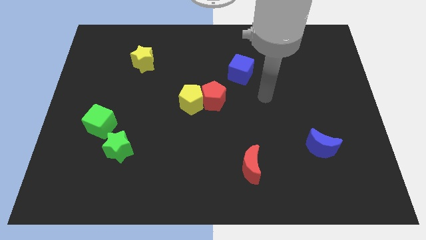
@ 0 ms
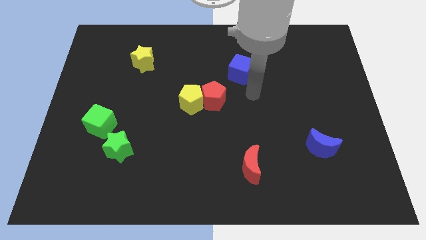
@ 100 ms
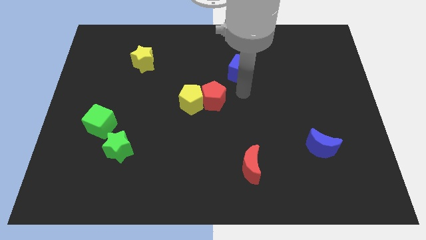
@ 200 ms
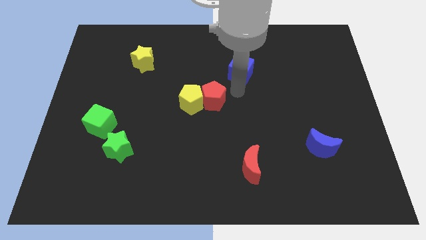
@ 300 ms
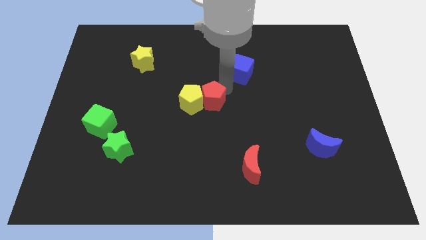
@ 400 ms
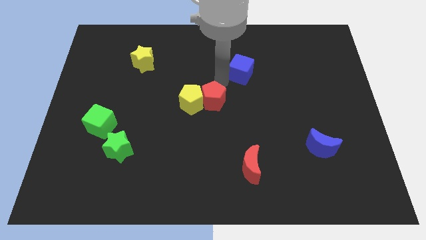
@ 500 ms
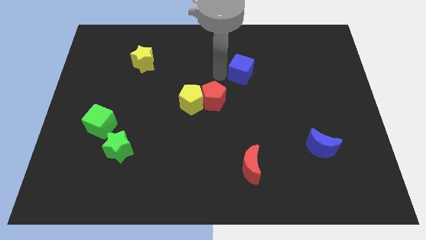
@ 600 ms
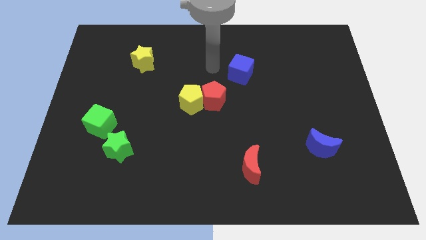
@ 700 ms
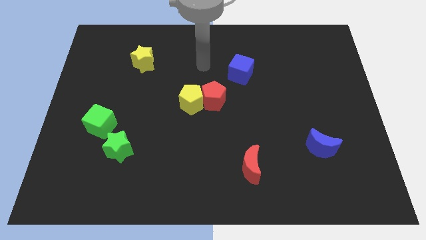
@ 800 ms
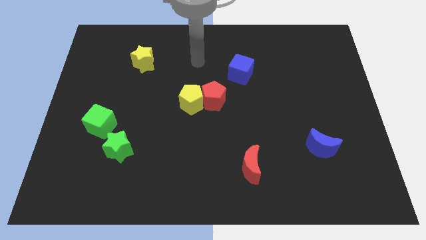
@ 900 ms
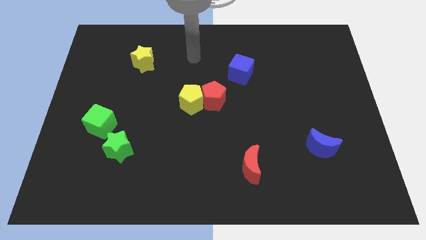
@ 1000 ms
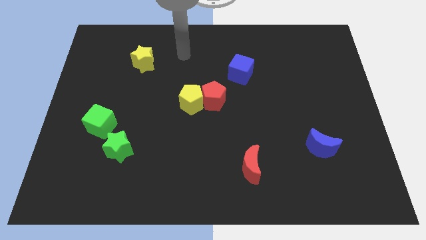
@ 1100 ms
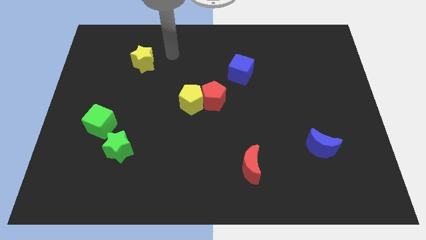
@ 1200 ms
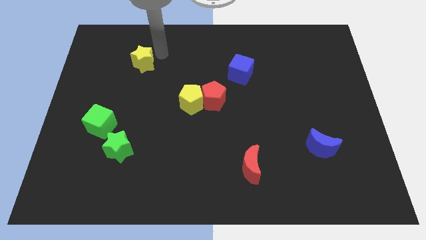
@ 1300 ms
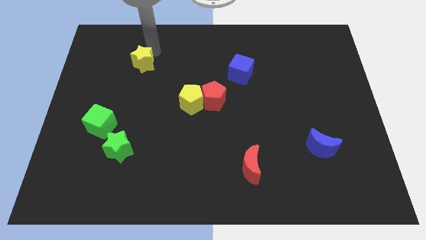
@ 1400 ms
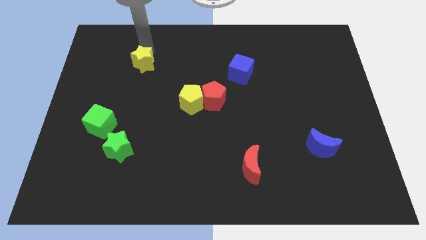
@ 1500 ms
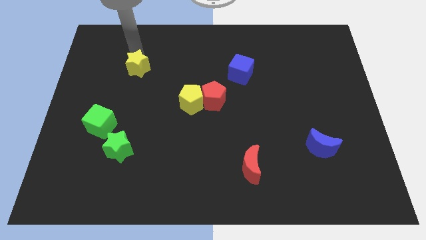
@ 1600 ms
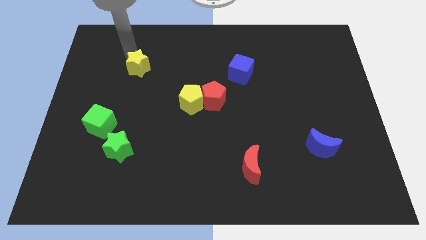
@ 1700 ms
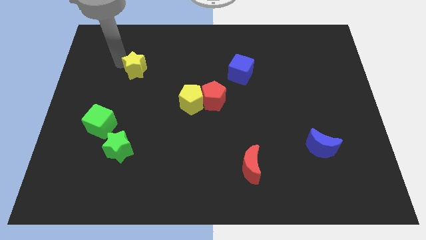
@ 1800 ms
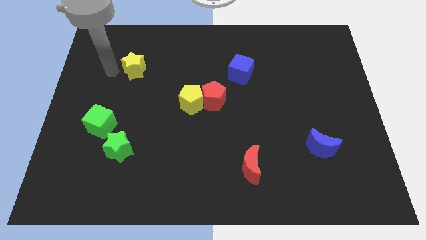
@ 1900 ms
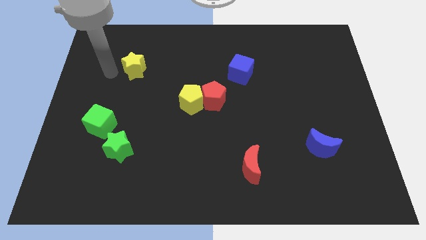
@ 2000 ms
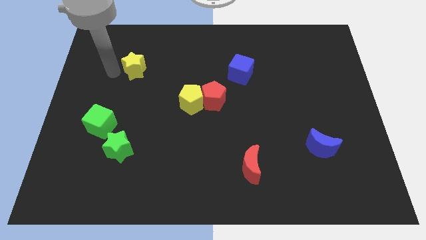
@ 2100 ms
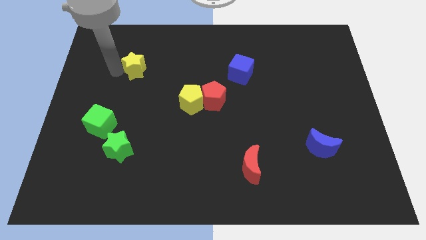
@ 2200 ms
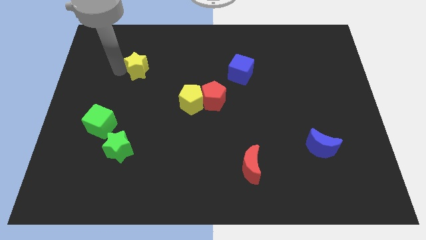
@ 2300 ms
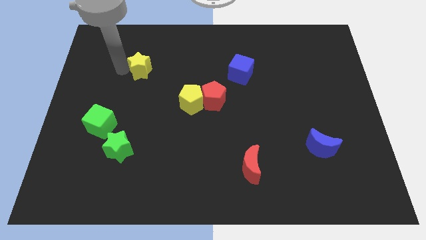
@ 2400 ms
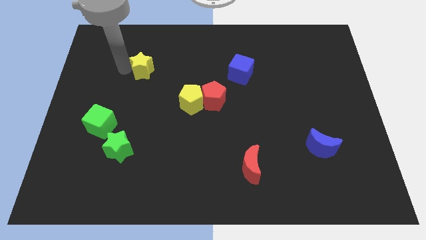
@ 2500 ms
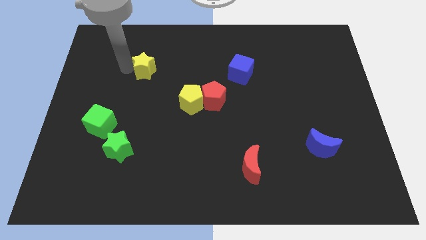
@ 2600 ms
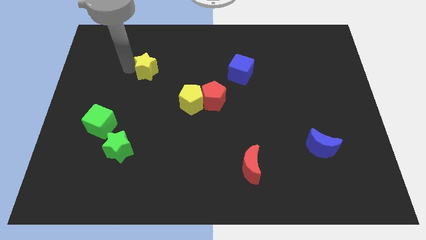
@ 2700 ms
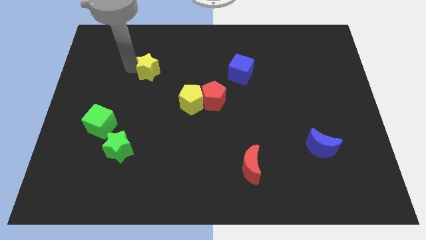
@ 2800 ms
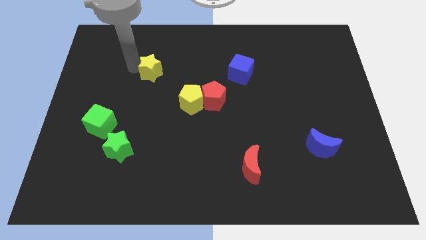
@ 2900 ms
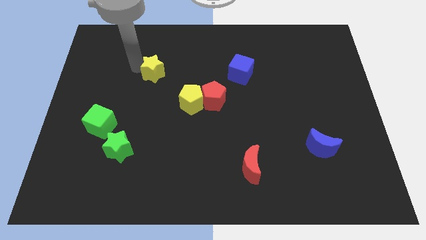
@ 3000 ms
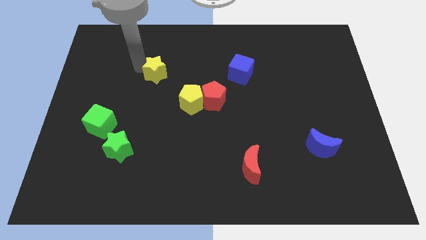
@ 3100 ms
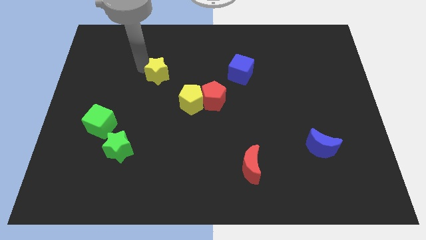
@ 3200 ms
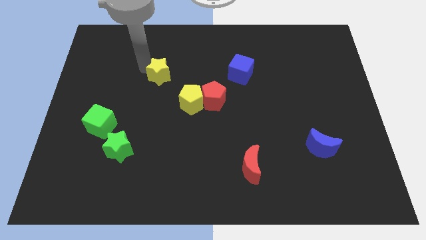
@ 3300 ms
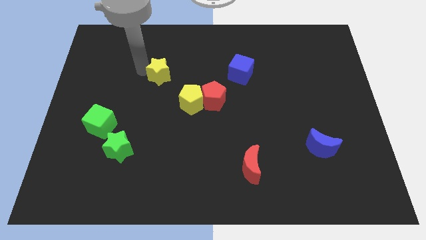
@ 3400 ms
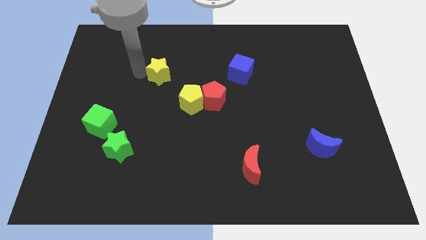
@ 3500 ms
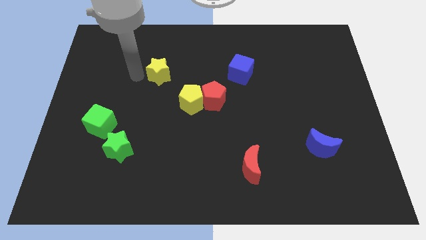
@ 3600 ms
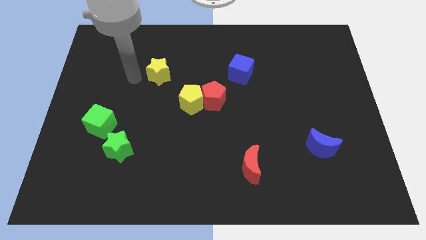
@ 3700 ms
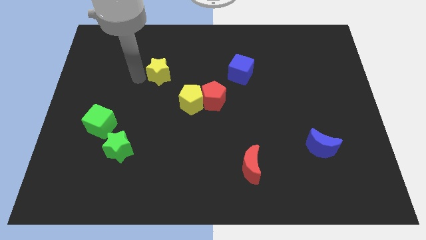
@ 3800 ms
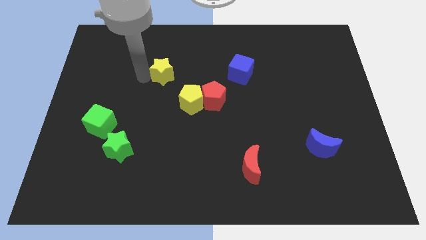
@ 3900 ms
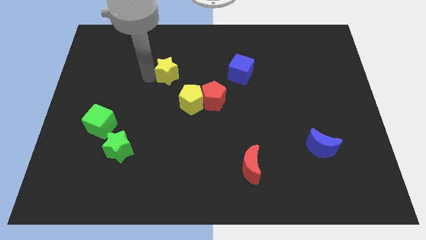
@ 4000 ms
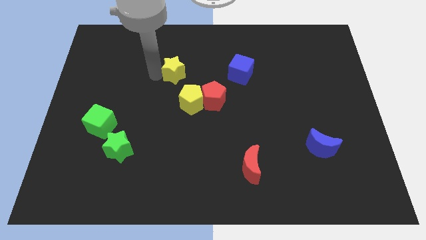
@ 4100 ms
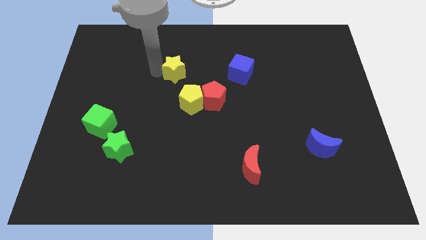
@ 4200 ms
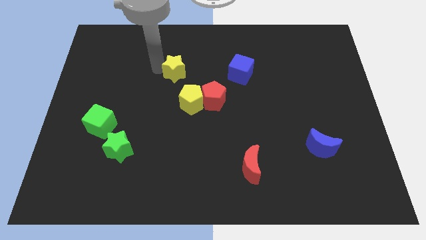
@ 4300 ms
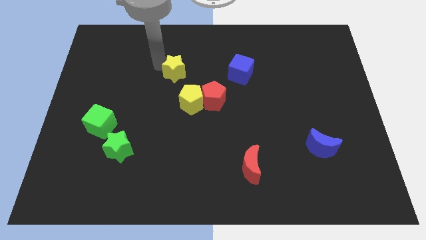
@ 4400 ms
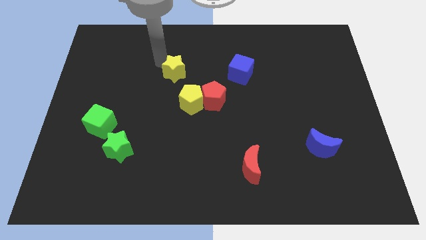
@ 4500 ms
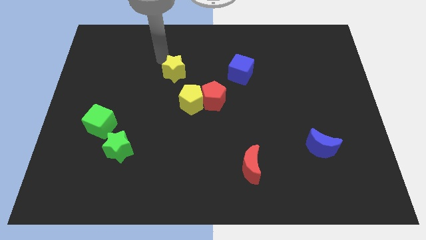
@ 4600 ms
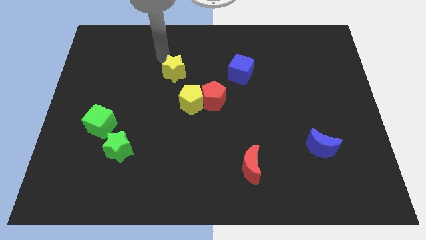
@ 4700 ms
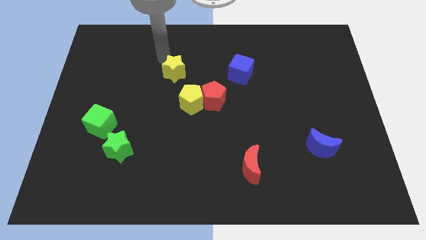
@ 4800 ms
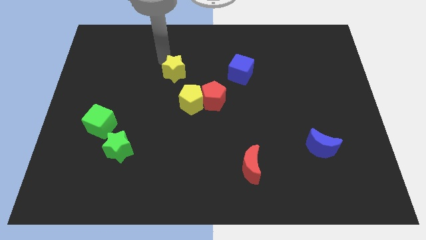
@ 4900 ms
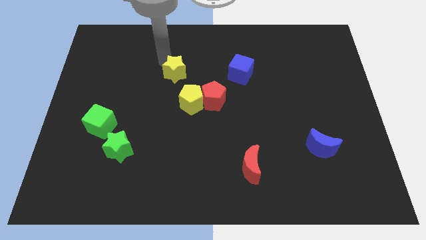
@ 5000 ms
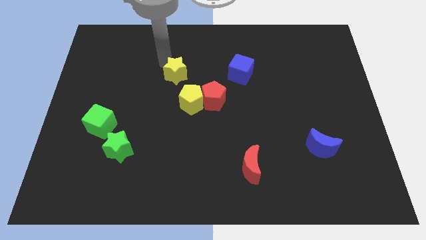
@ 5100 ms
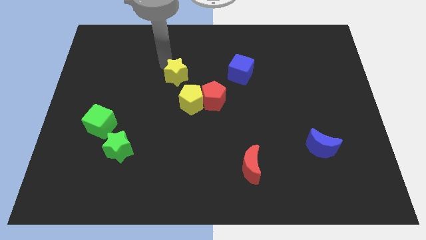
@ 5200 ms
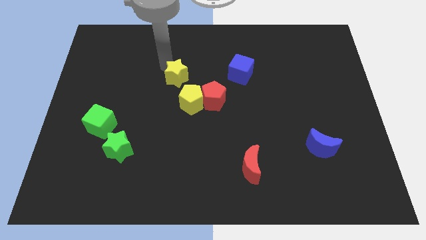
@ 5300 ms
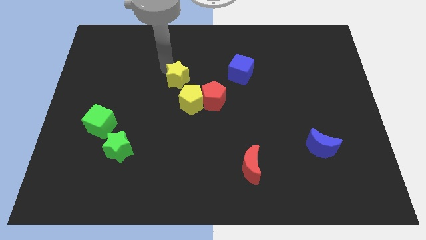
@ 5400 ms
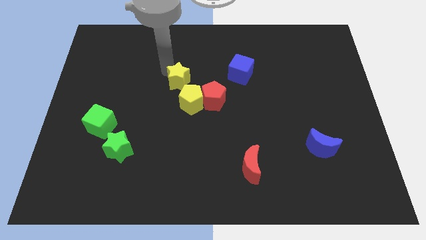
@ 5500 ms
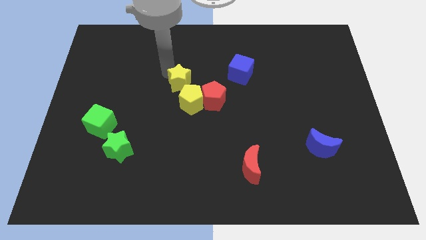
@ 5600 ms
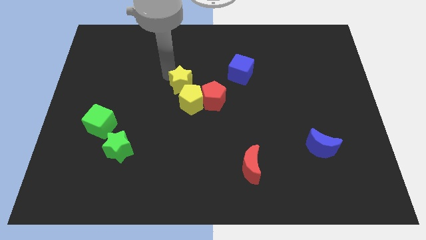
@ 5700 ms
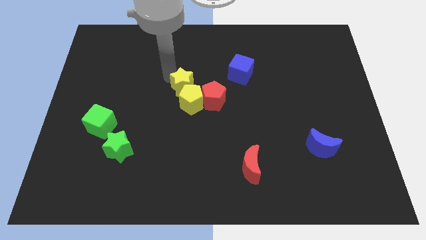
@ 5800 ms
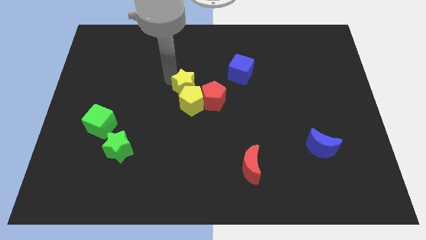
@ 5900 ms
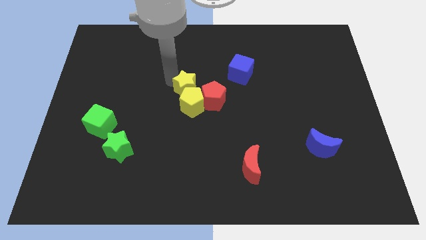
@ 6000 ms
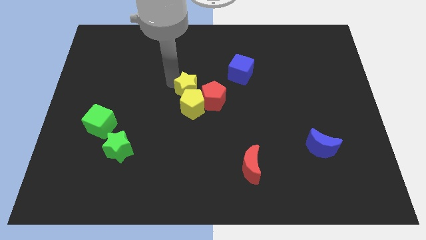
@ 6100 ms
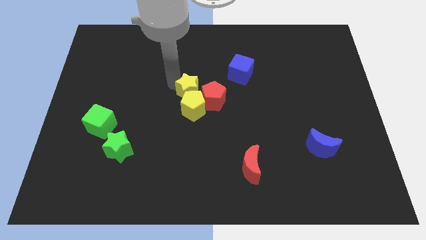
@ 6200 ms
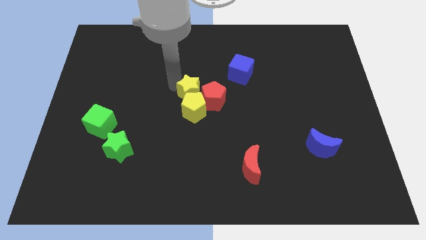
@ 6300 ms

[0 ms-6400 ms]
slide the yellow star next to the red pentagon
